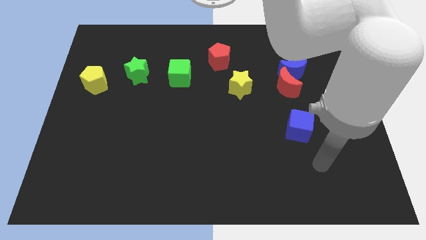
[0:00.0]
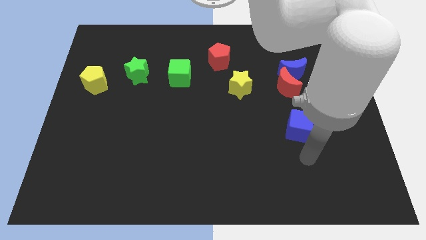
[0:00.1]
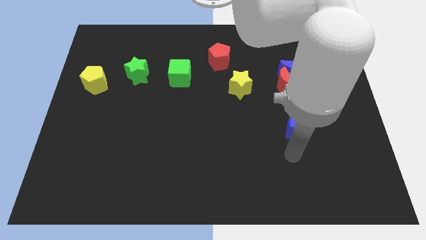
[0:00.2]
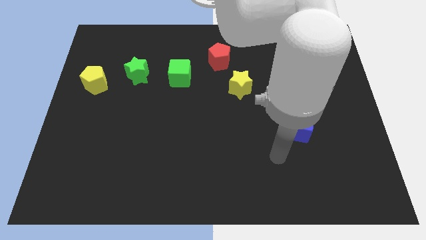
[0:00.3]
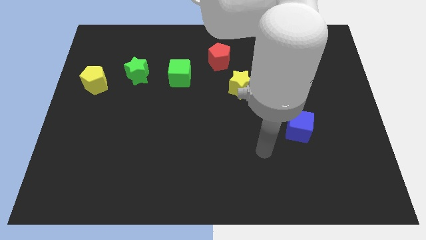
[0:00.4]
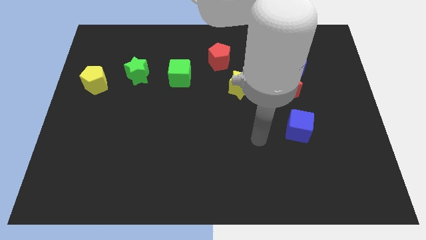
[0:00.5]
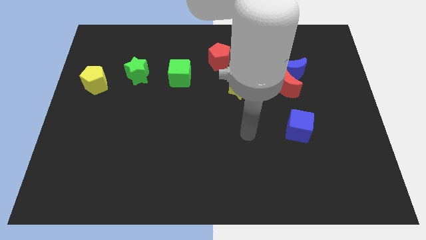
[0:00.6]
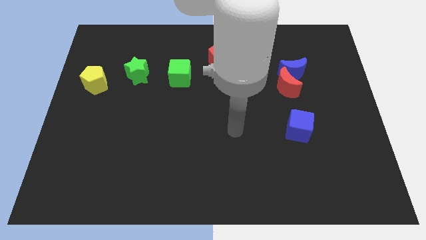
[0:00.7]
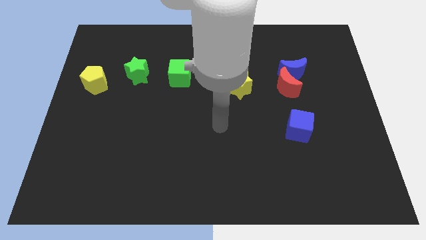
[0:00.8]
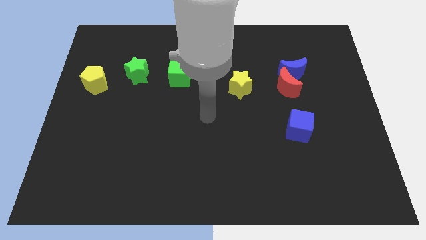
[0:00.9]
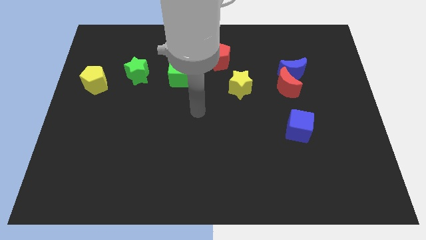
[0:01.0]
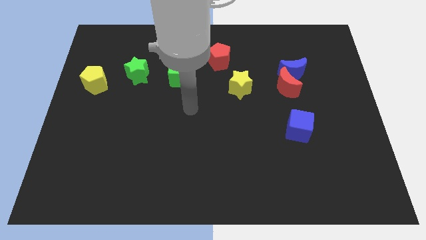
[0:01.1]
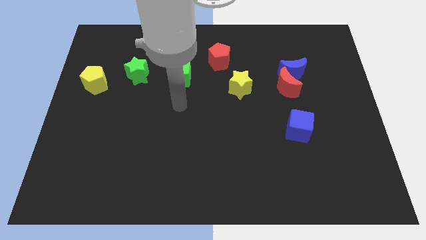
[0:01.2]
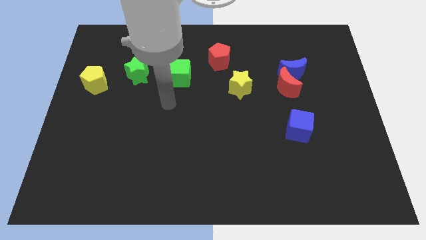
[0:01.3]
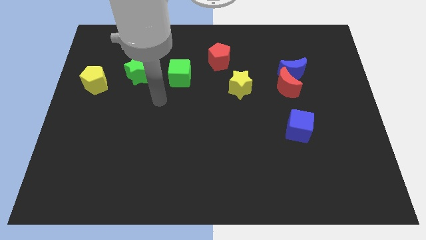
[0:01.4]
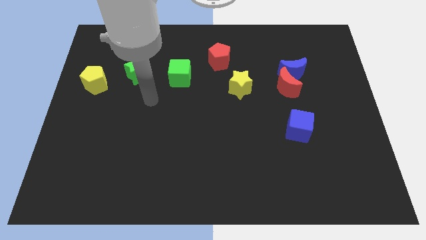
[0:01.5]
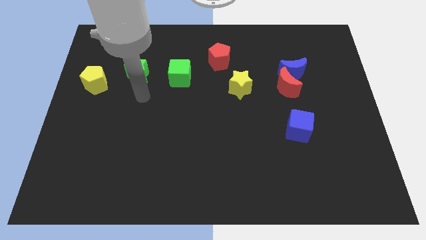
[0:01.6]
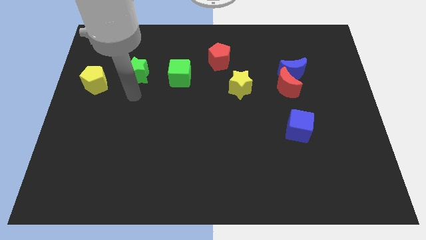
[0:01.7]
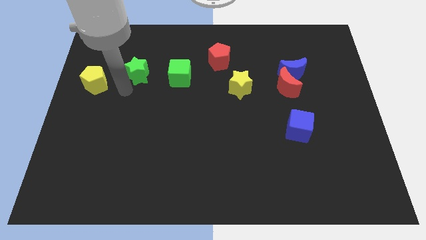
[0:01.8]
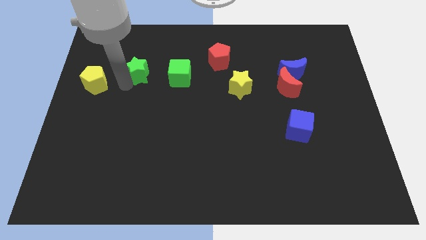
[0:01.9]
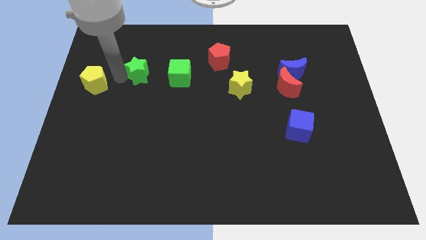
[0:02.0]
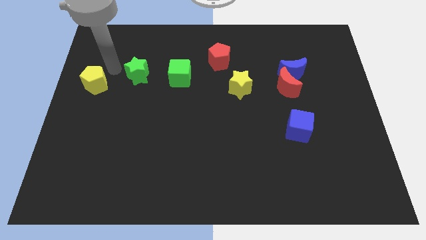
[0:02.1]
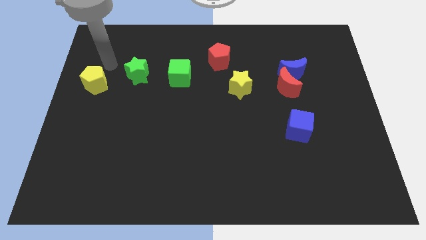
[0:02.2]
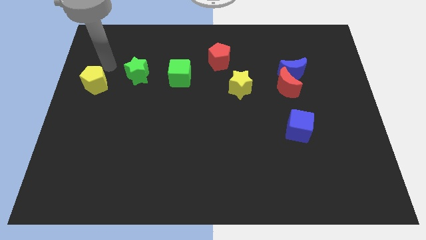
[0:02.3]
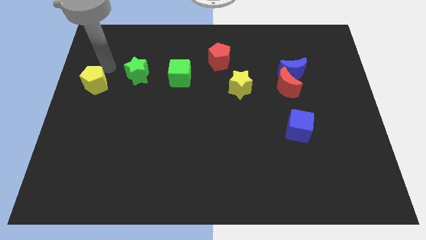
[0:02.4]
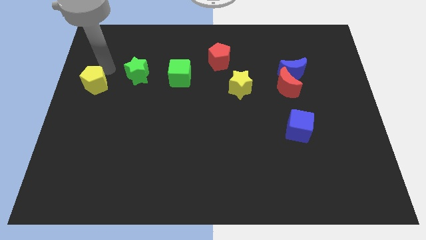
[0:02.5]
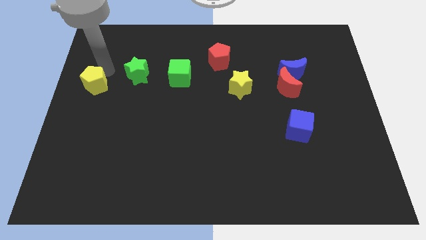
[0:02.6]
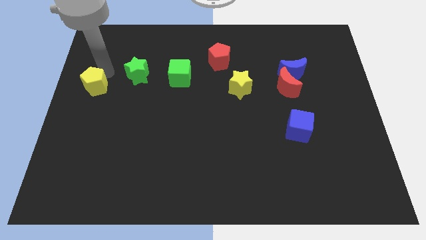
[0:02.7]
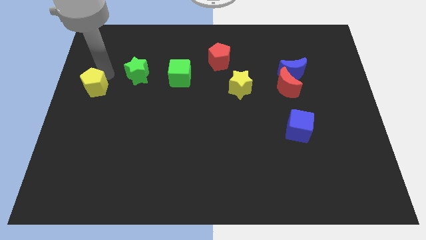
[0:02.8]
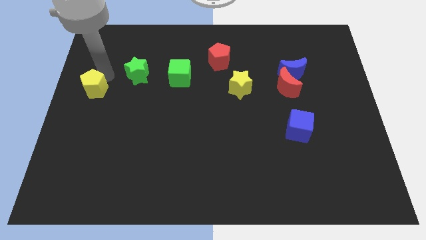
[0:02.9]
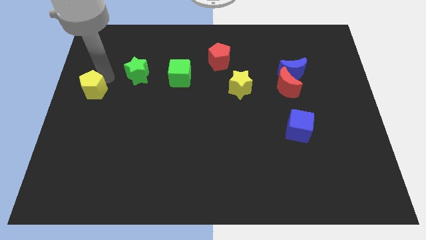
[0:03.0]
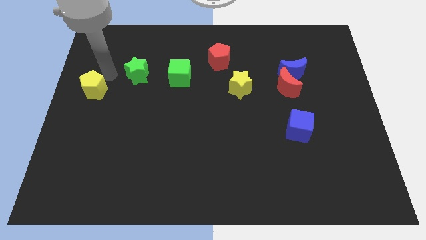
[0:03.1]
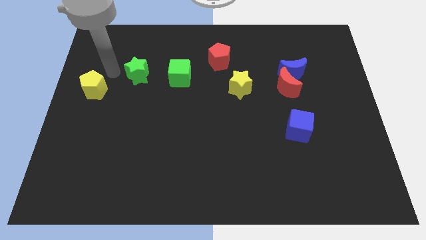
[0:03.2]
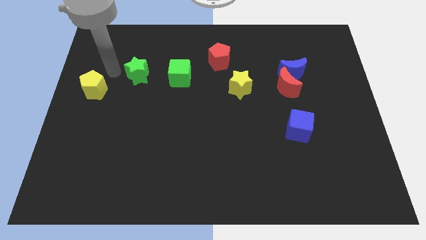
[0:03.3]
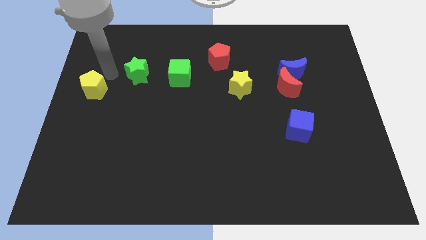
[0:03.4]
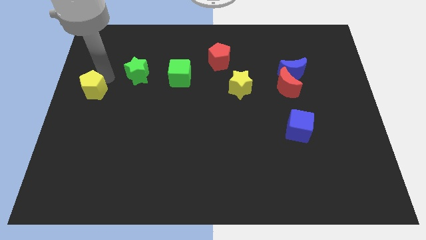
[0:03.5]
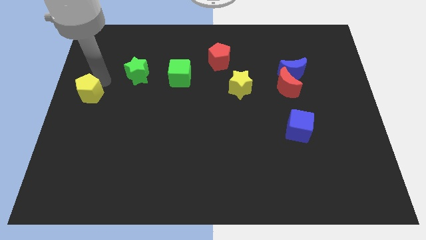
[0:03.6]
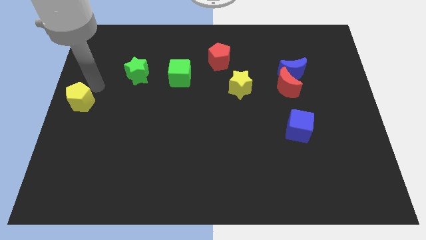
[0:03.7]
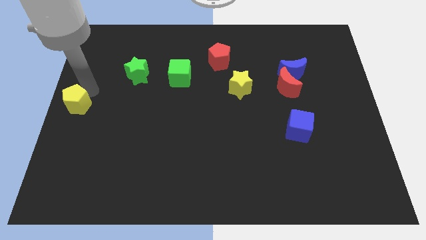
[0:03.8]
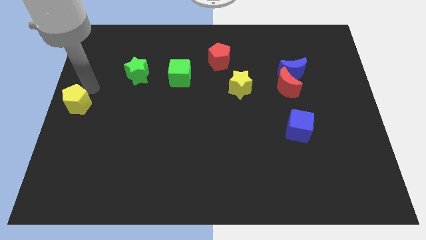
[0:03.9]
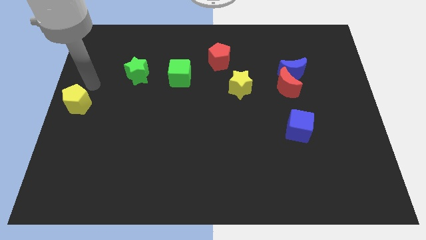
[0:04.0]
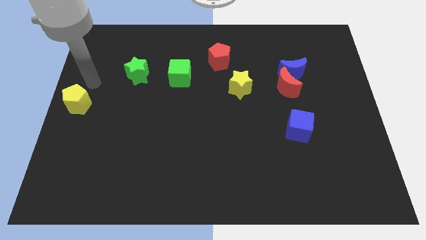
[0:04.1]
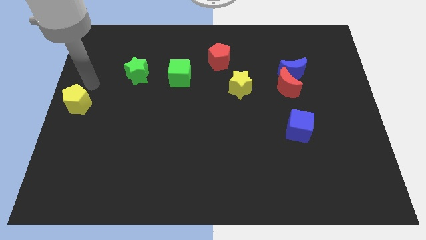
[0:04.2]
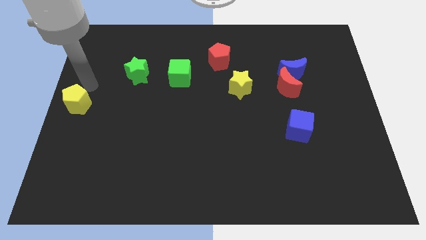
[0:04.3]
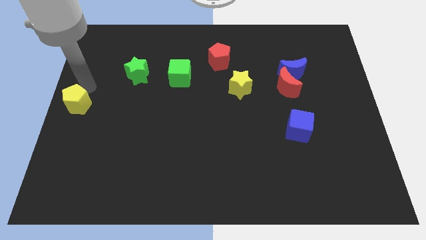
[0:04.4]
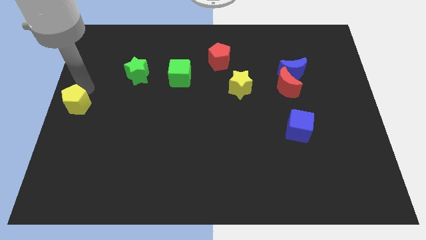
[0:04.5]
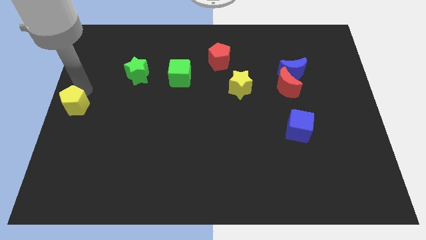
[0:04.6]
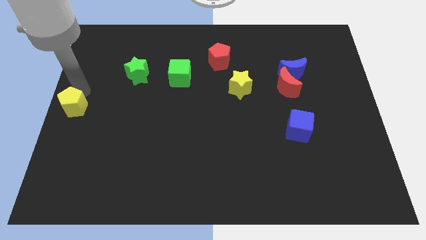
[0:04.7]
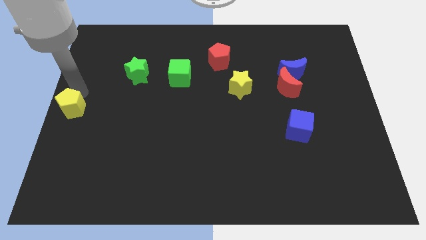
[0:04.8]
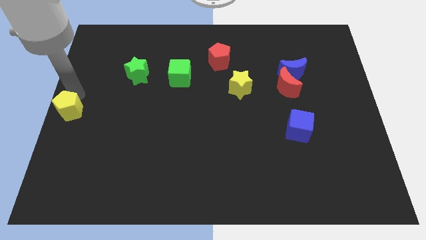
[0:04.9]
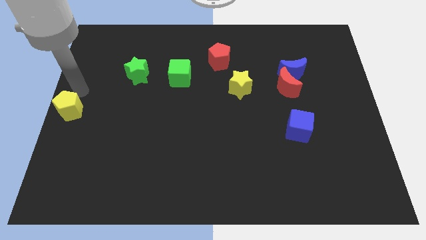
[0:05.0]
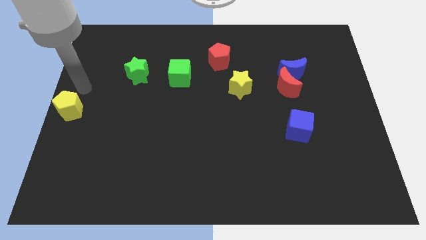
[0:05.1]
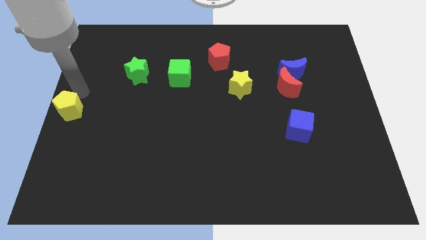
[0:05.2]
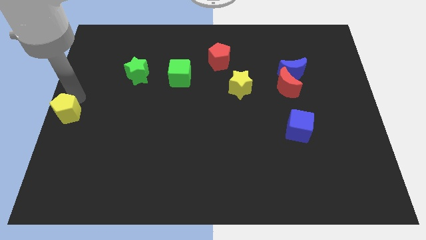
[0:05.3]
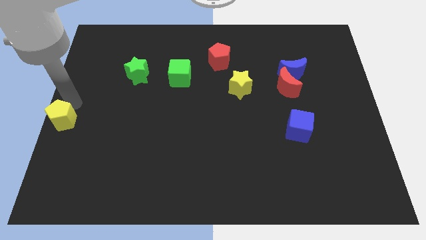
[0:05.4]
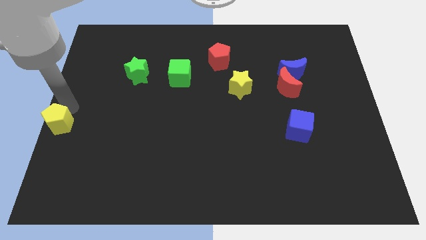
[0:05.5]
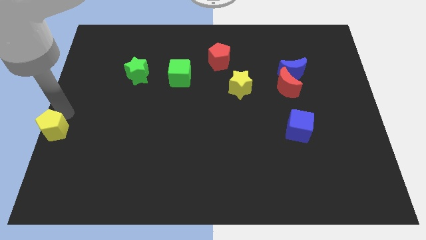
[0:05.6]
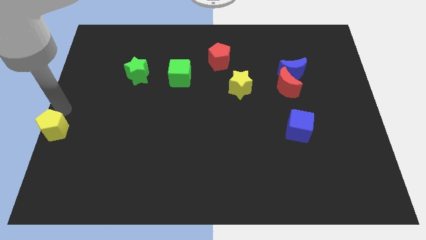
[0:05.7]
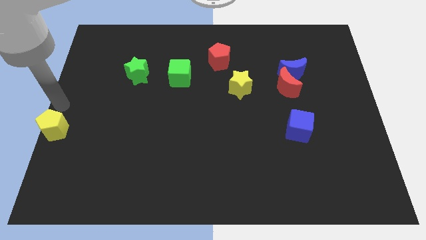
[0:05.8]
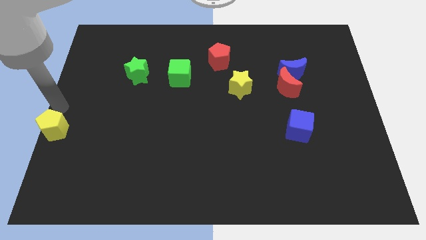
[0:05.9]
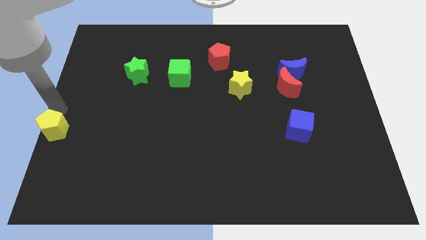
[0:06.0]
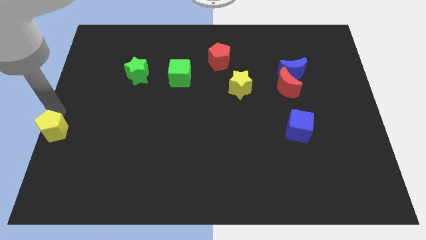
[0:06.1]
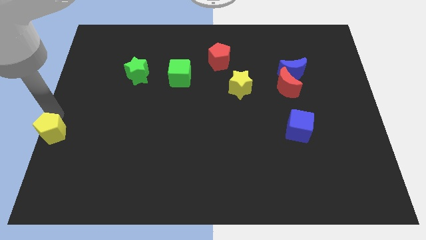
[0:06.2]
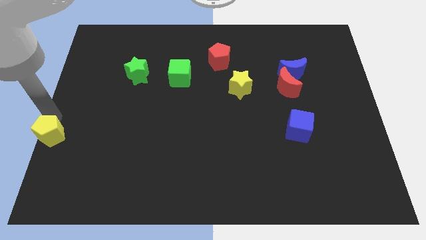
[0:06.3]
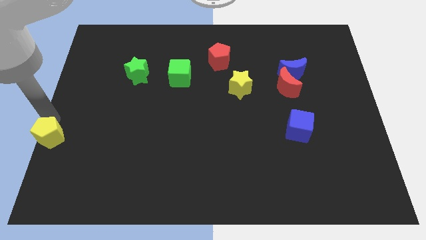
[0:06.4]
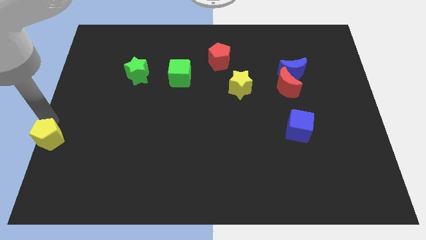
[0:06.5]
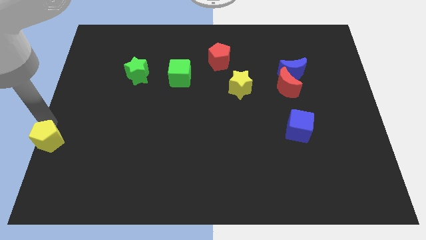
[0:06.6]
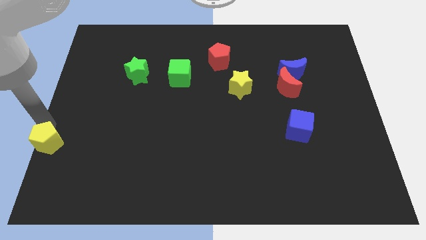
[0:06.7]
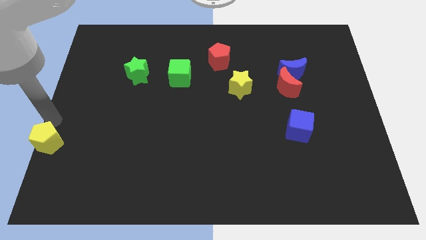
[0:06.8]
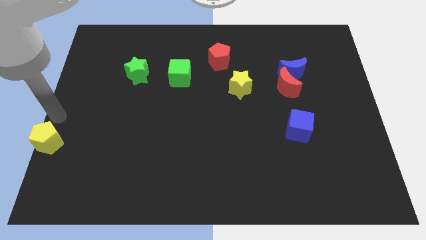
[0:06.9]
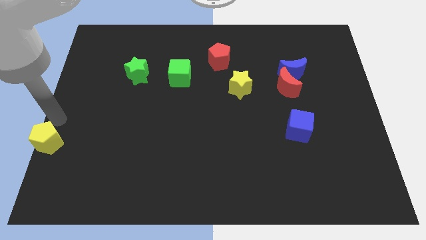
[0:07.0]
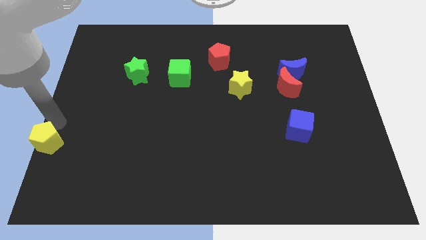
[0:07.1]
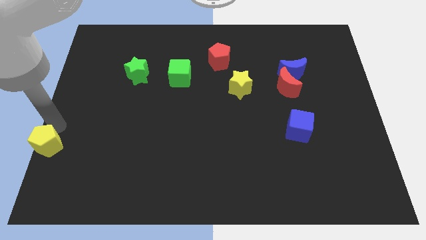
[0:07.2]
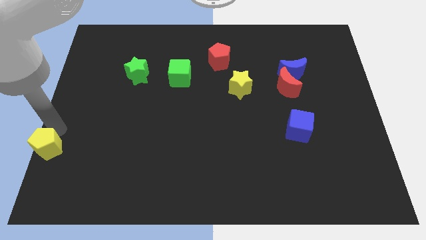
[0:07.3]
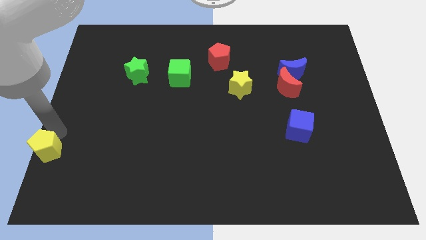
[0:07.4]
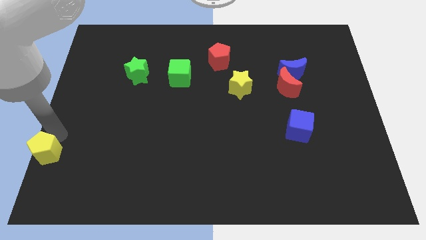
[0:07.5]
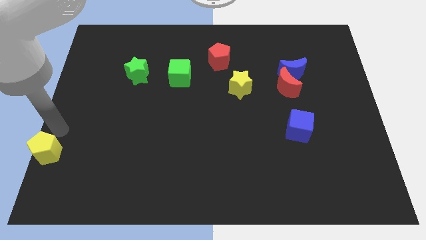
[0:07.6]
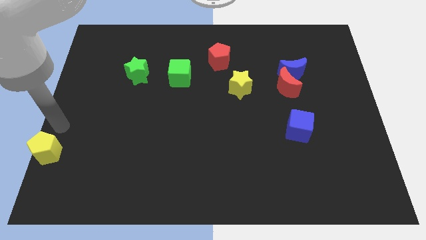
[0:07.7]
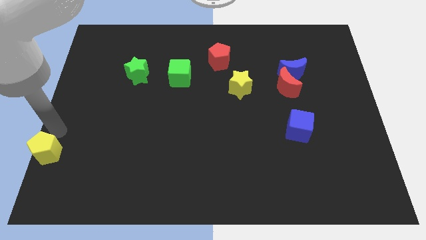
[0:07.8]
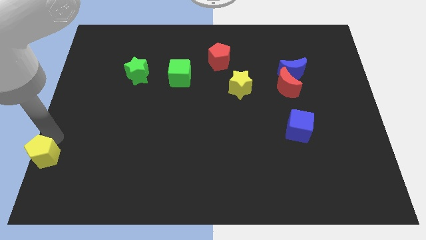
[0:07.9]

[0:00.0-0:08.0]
move the yellow pentagon to the bottom left corner
